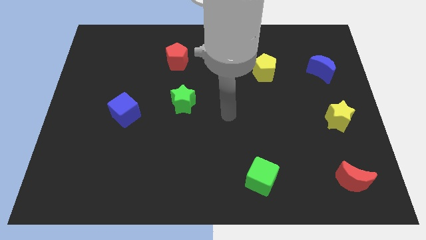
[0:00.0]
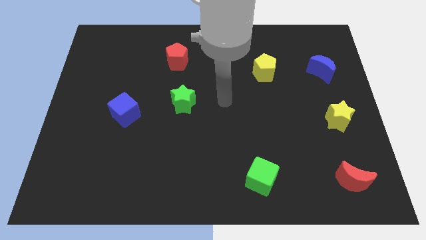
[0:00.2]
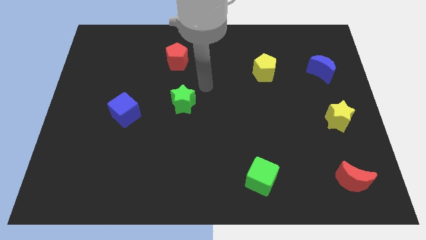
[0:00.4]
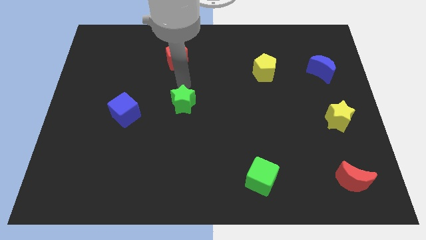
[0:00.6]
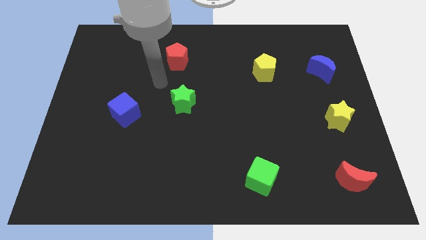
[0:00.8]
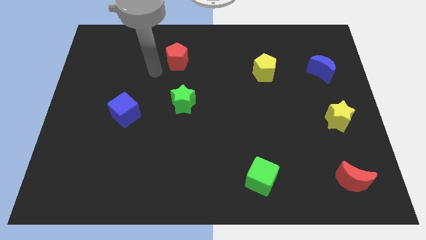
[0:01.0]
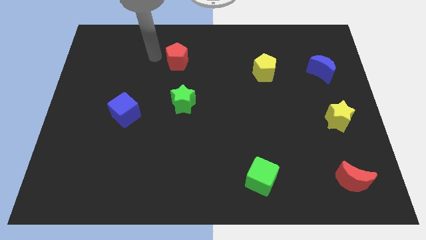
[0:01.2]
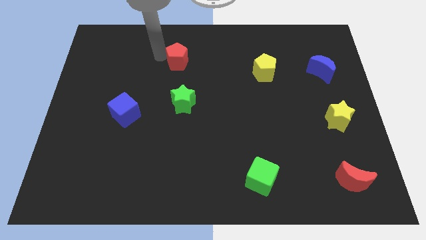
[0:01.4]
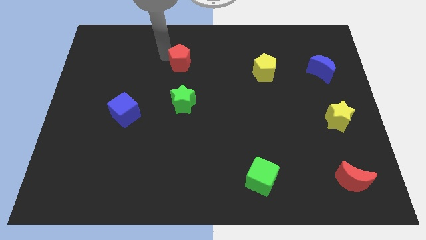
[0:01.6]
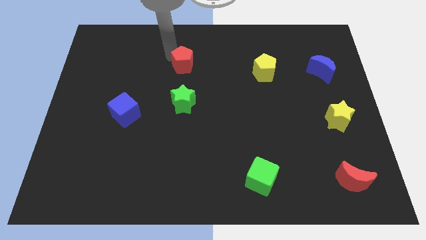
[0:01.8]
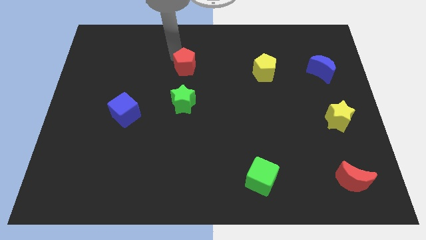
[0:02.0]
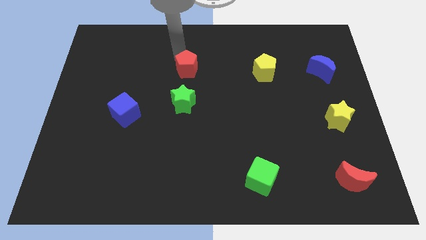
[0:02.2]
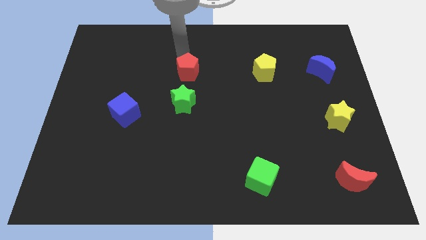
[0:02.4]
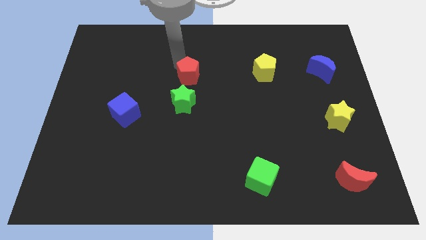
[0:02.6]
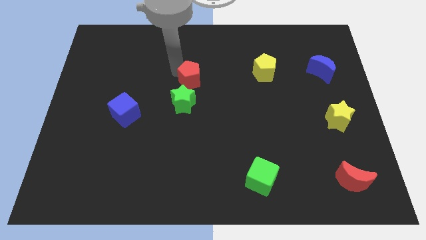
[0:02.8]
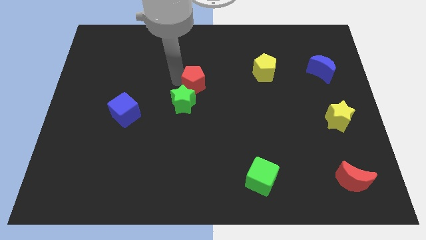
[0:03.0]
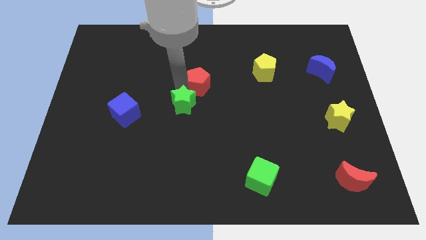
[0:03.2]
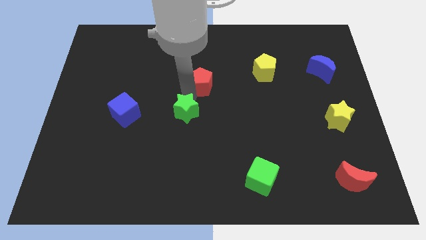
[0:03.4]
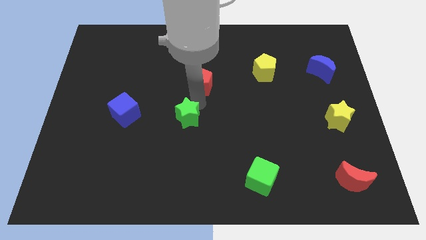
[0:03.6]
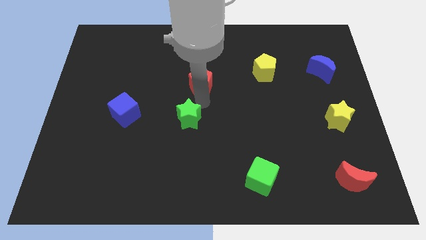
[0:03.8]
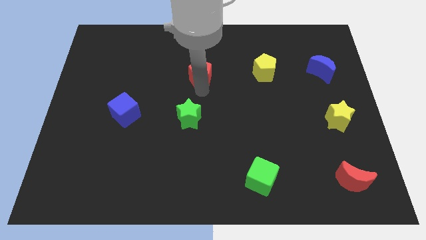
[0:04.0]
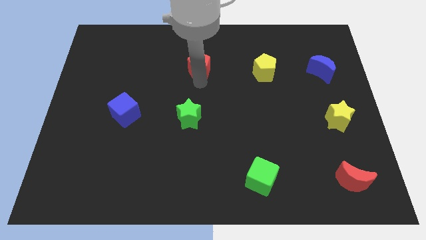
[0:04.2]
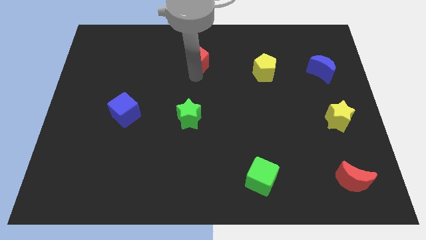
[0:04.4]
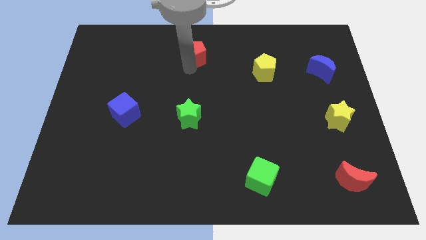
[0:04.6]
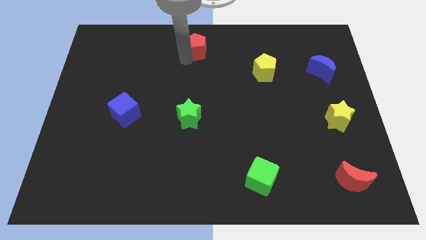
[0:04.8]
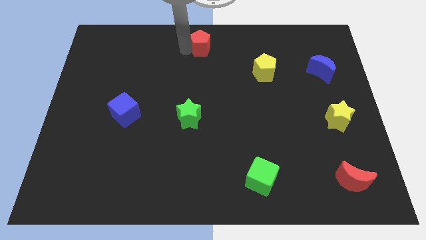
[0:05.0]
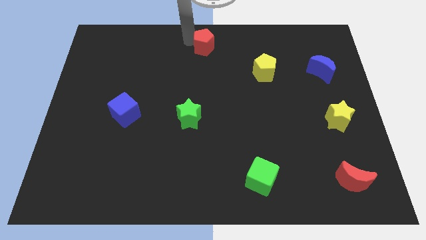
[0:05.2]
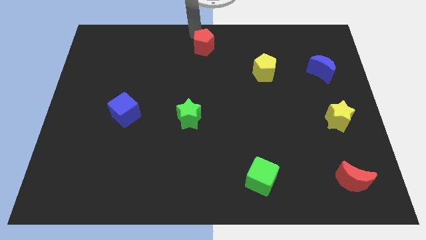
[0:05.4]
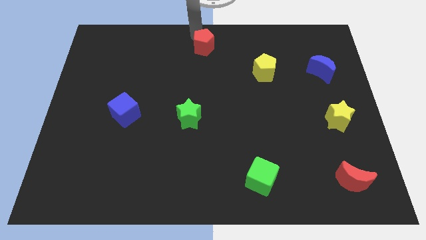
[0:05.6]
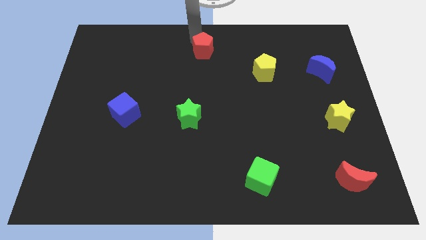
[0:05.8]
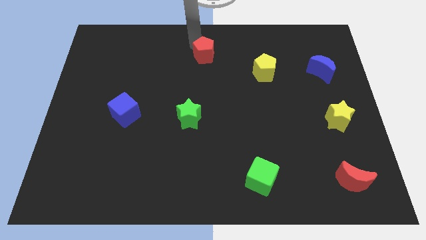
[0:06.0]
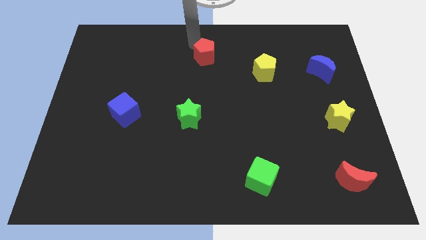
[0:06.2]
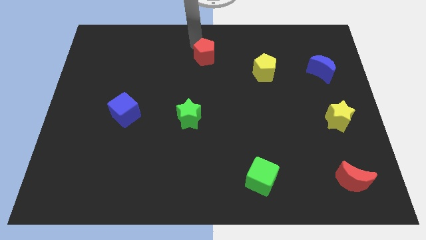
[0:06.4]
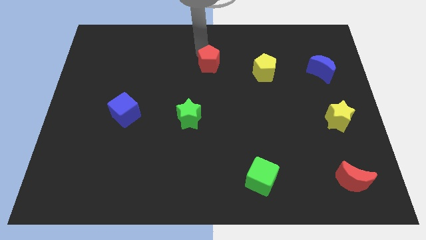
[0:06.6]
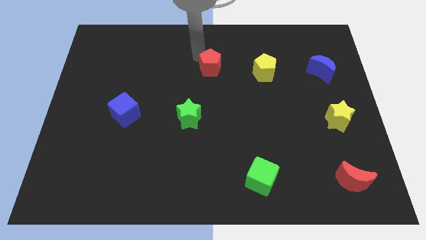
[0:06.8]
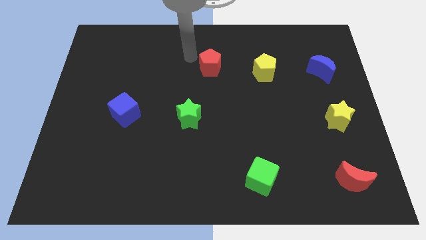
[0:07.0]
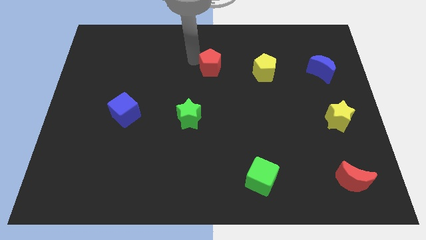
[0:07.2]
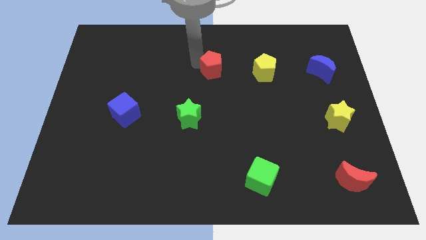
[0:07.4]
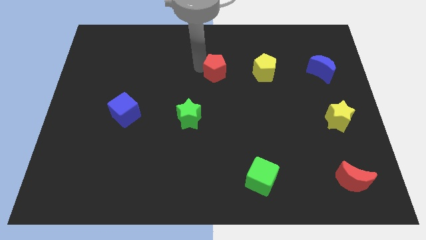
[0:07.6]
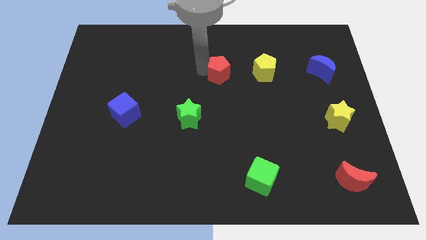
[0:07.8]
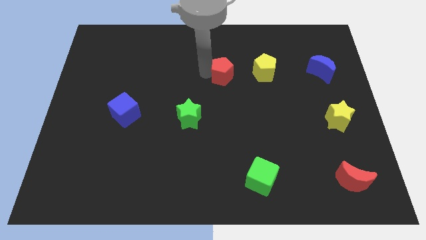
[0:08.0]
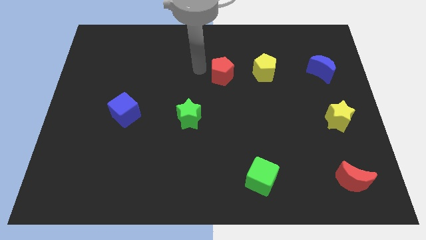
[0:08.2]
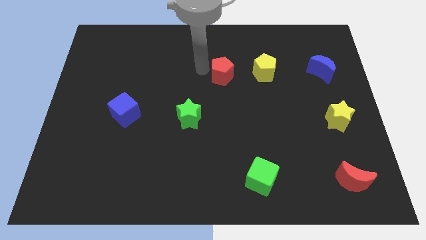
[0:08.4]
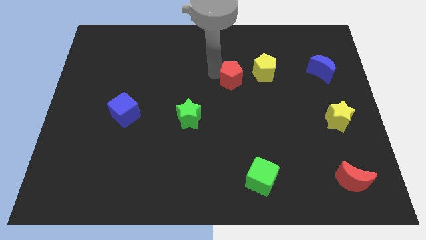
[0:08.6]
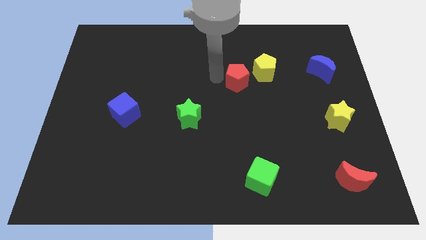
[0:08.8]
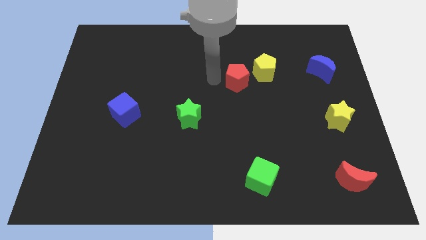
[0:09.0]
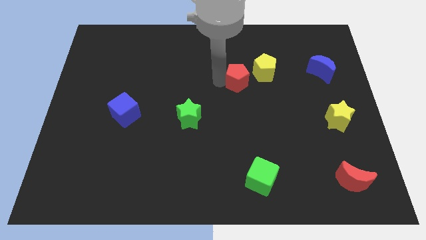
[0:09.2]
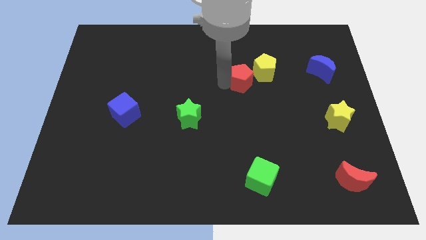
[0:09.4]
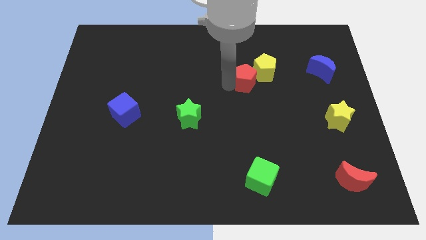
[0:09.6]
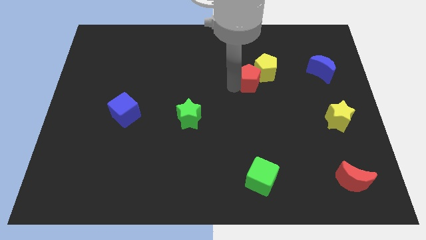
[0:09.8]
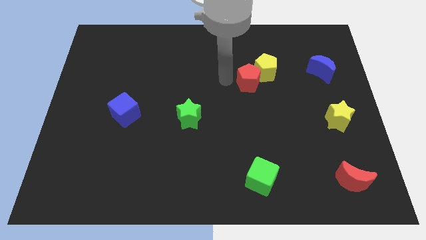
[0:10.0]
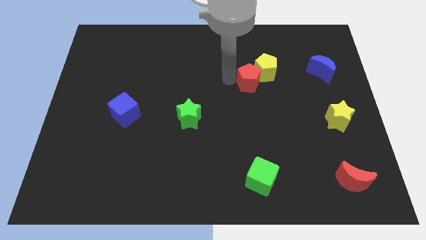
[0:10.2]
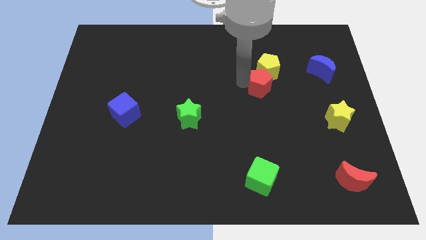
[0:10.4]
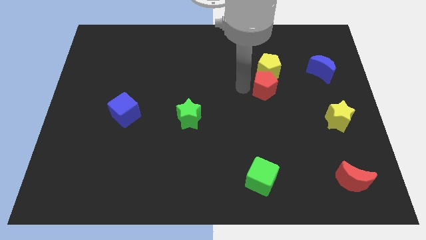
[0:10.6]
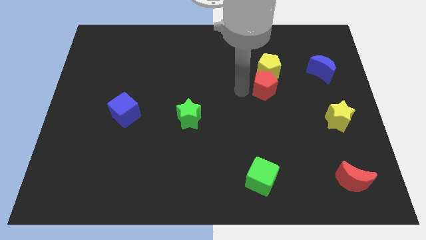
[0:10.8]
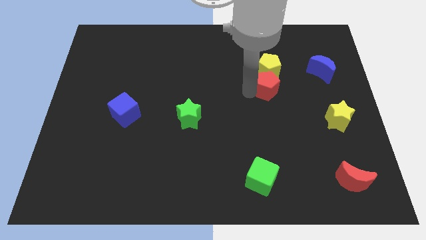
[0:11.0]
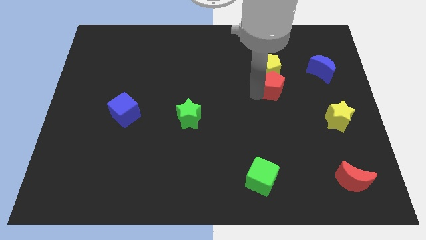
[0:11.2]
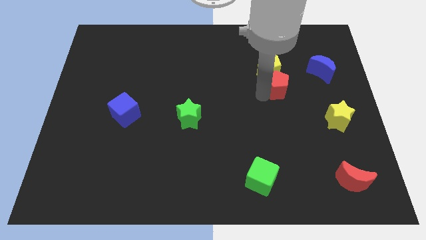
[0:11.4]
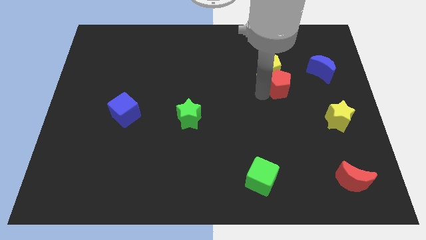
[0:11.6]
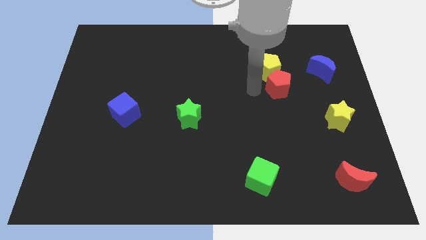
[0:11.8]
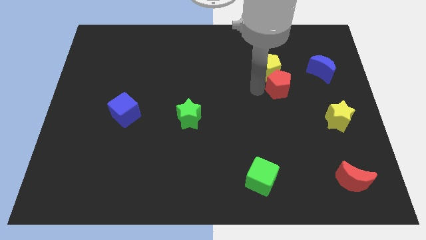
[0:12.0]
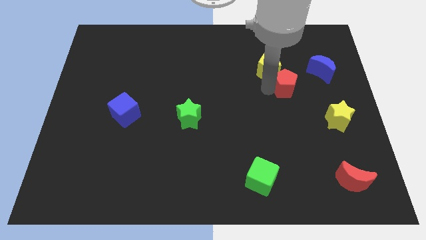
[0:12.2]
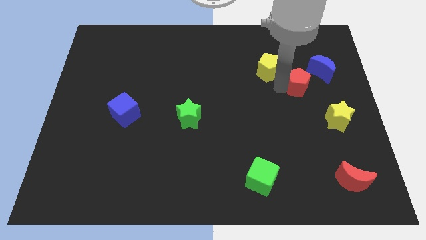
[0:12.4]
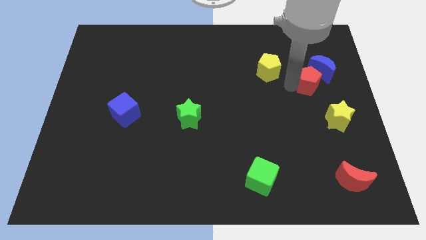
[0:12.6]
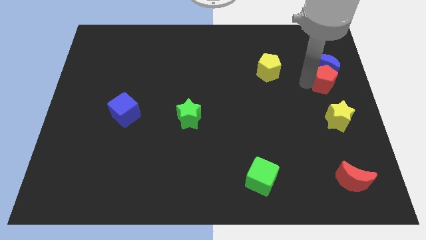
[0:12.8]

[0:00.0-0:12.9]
put the red pentagon to the right side
